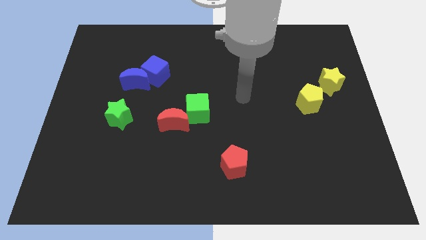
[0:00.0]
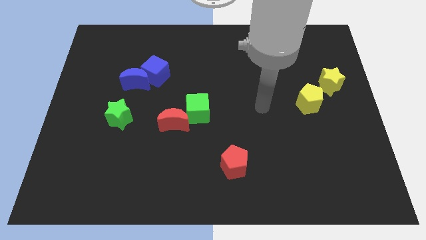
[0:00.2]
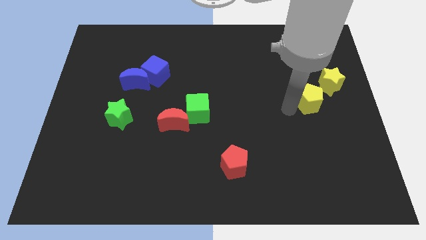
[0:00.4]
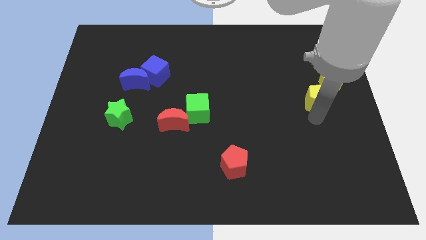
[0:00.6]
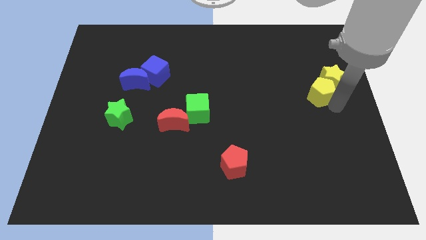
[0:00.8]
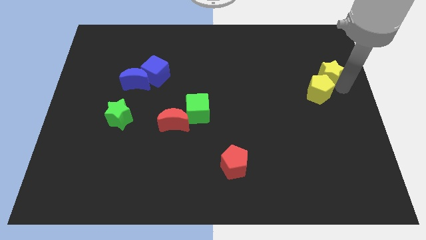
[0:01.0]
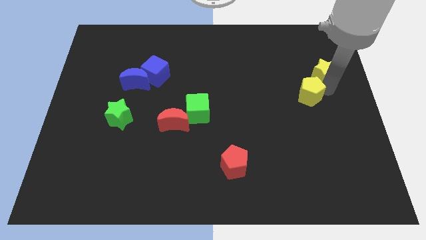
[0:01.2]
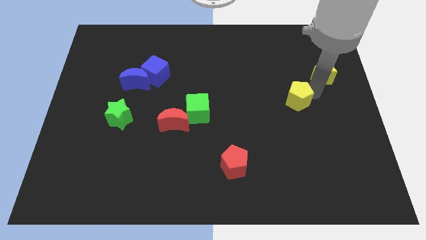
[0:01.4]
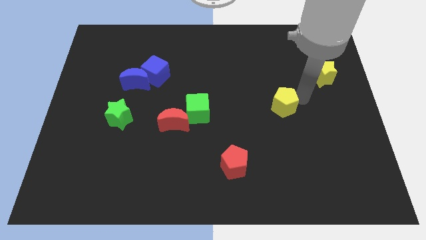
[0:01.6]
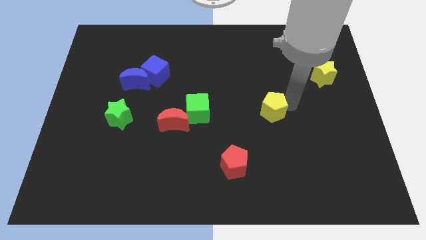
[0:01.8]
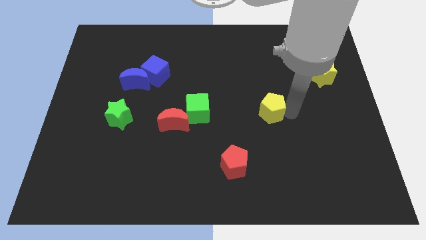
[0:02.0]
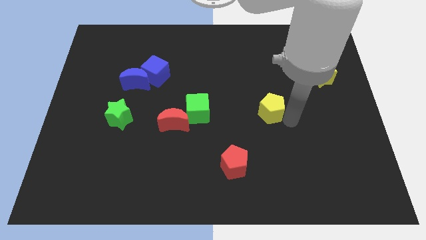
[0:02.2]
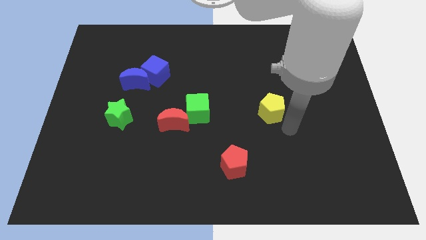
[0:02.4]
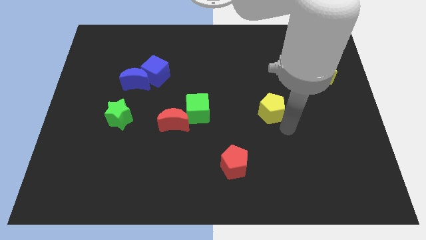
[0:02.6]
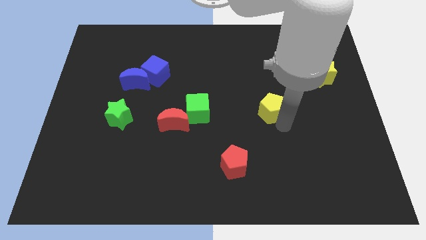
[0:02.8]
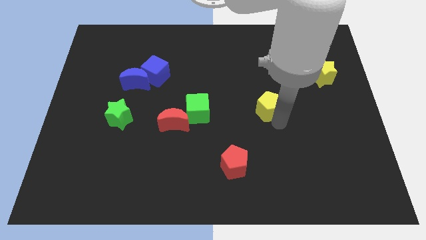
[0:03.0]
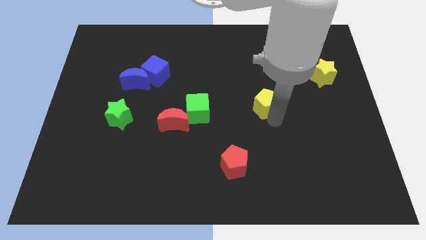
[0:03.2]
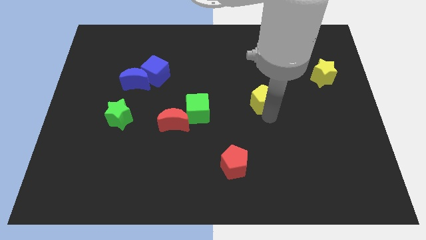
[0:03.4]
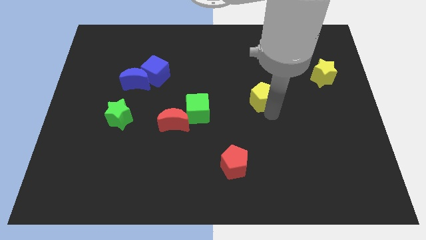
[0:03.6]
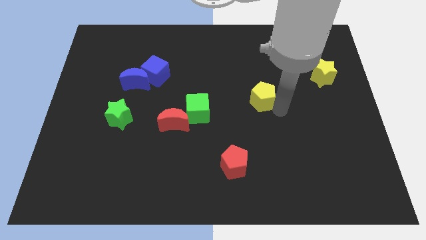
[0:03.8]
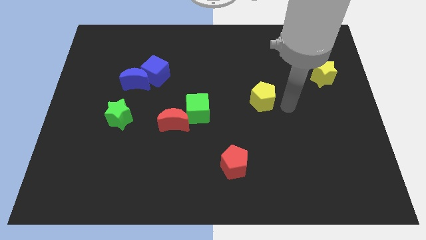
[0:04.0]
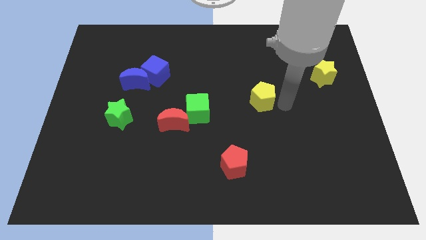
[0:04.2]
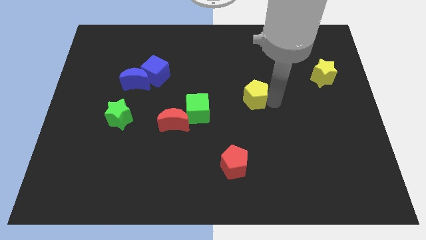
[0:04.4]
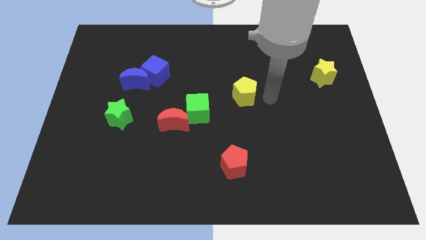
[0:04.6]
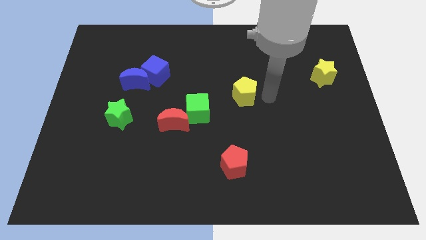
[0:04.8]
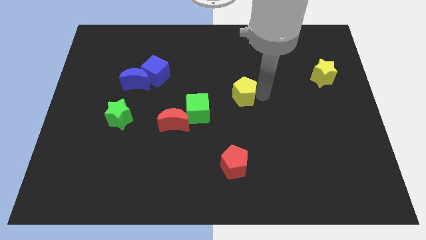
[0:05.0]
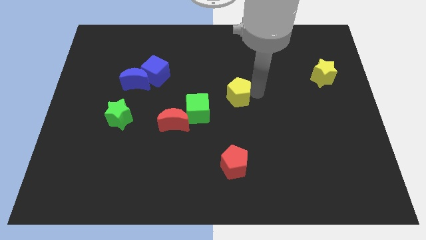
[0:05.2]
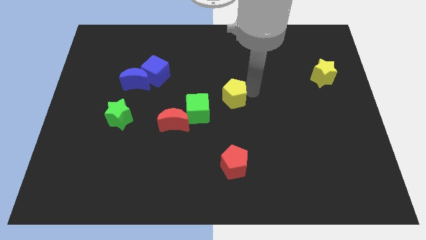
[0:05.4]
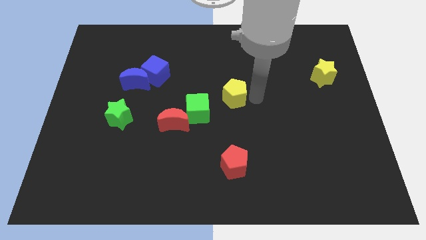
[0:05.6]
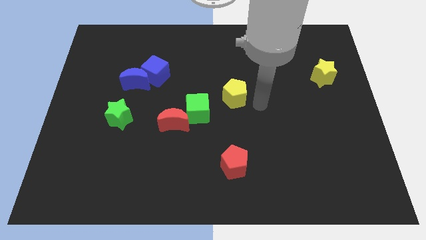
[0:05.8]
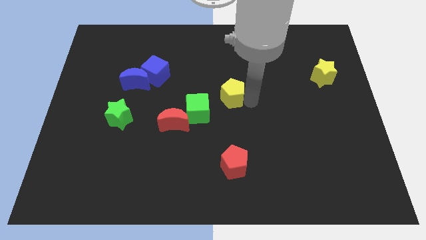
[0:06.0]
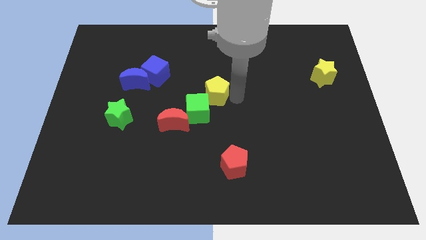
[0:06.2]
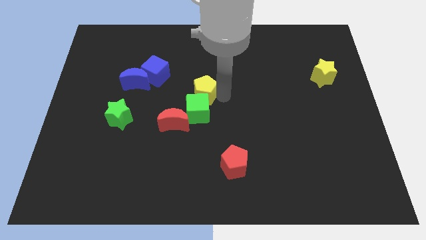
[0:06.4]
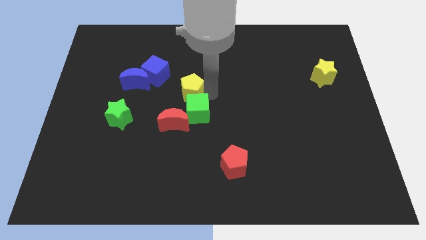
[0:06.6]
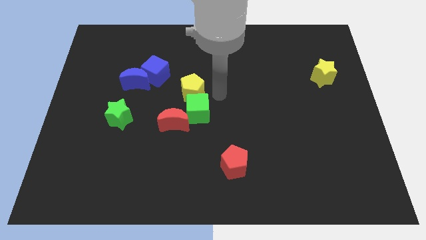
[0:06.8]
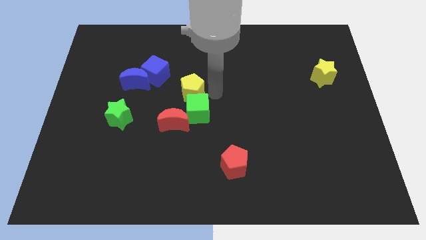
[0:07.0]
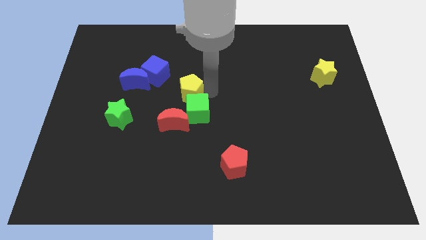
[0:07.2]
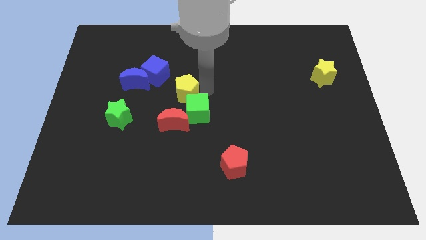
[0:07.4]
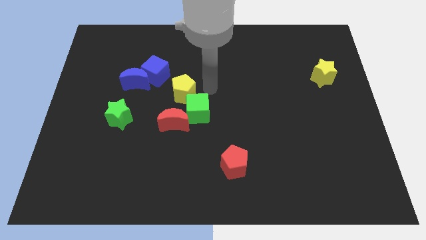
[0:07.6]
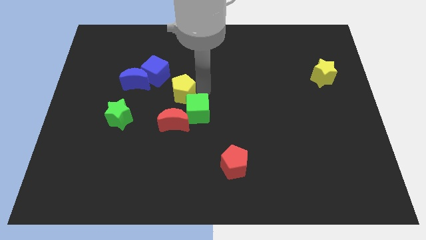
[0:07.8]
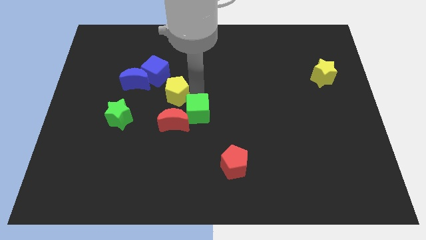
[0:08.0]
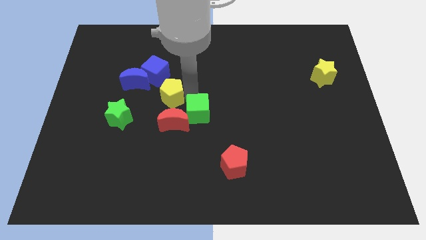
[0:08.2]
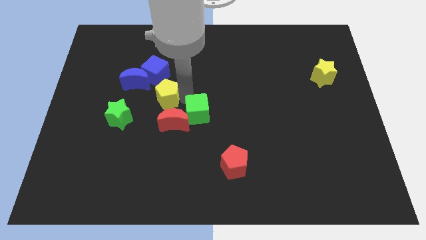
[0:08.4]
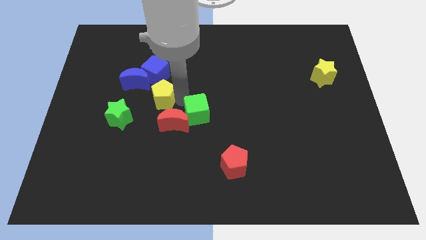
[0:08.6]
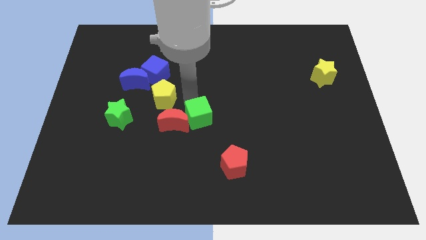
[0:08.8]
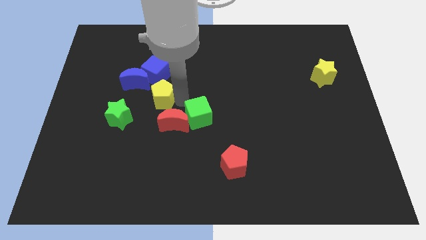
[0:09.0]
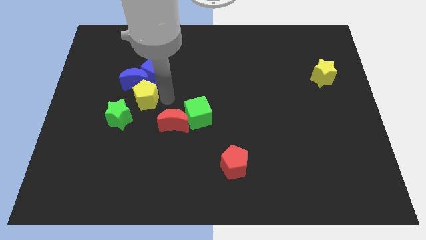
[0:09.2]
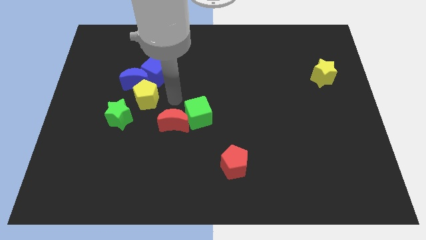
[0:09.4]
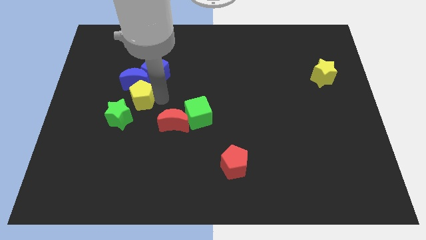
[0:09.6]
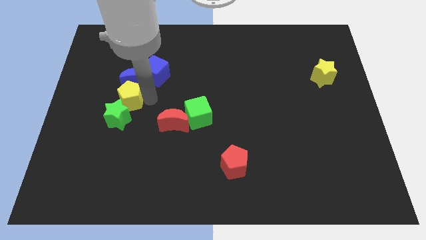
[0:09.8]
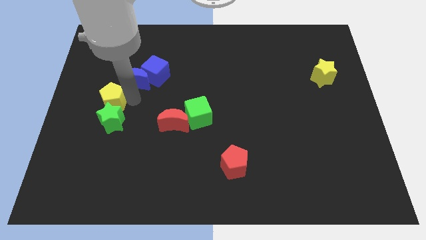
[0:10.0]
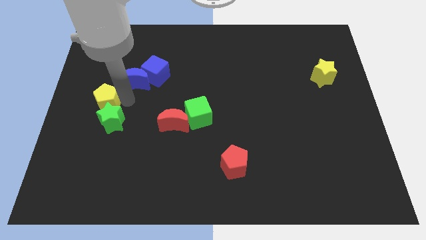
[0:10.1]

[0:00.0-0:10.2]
move the yellow pentagon to the center left

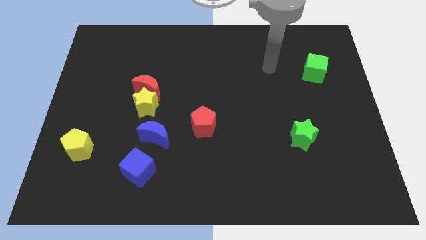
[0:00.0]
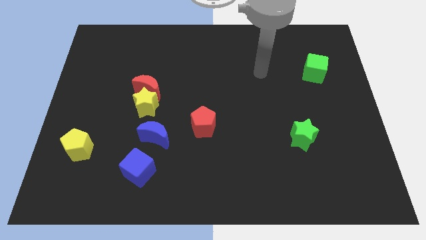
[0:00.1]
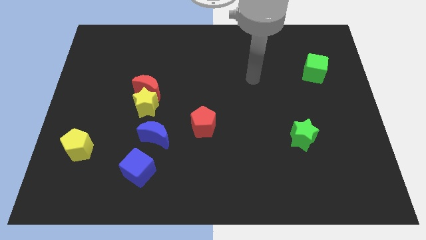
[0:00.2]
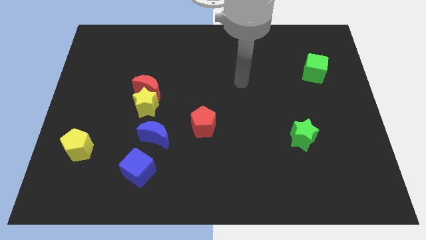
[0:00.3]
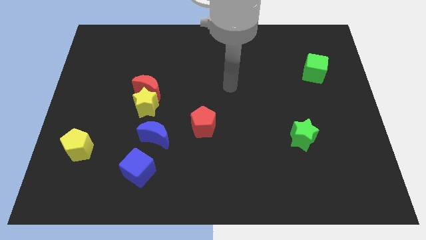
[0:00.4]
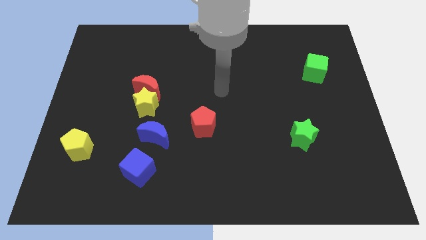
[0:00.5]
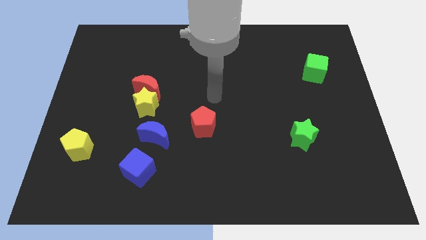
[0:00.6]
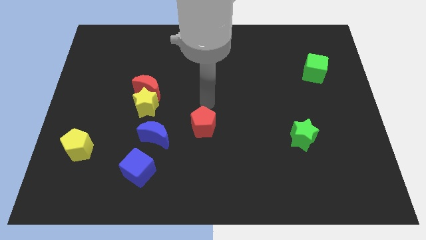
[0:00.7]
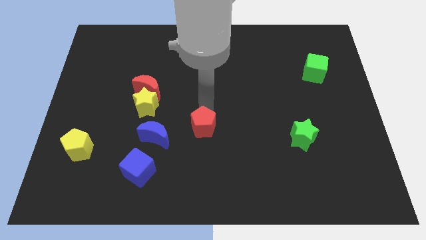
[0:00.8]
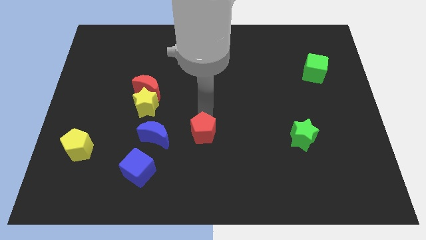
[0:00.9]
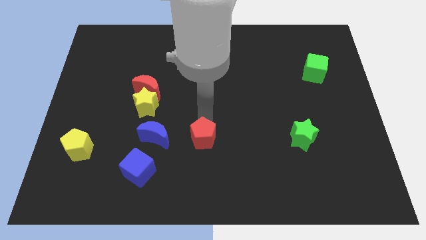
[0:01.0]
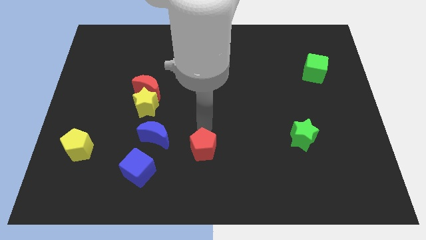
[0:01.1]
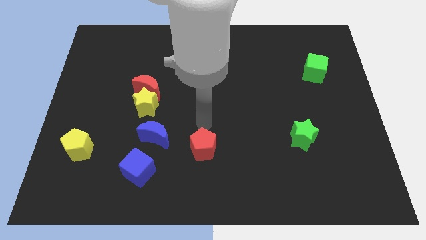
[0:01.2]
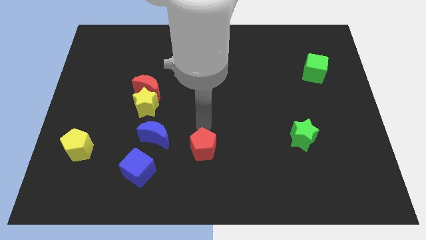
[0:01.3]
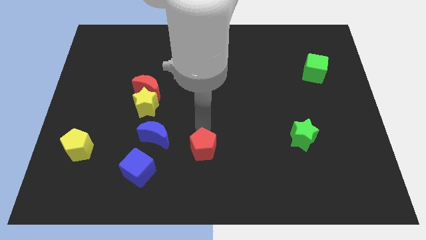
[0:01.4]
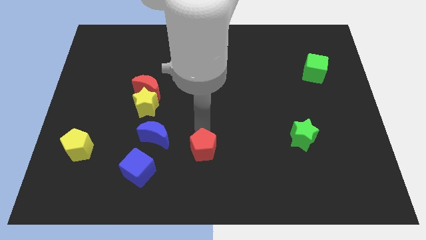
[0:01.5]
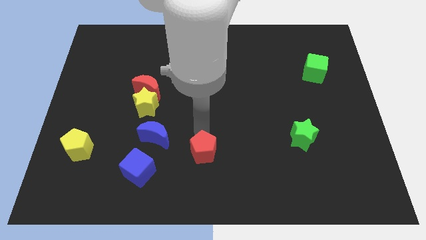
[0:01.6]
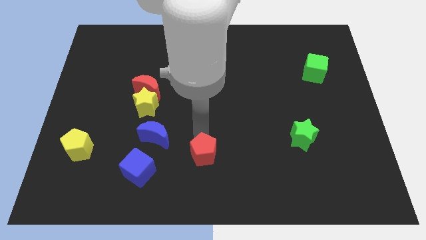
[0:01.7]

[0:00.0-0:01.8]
put the red pentagon to the bottom
